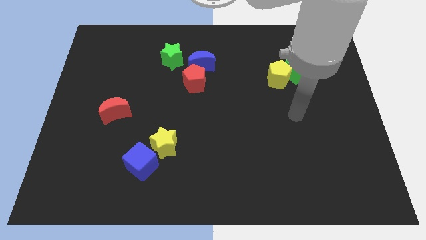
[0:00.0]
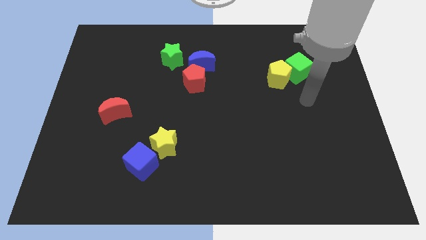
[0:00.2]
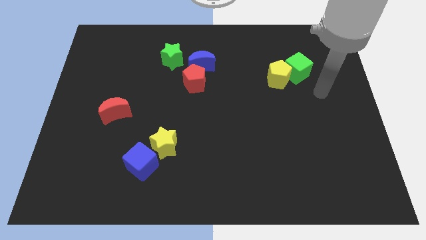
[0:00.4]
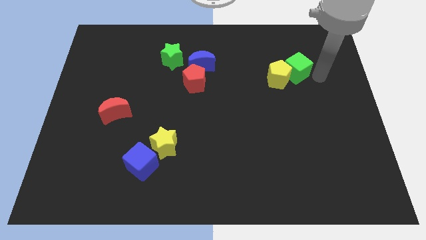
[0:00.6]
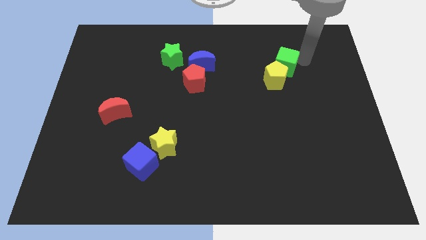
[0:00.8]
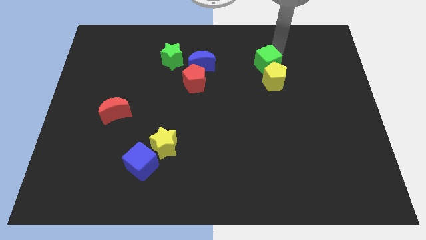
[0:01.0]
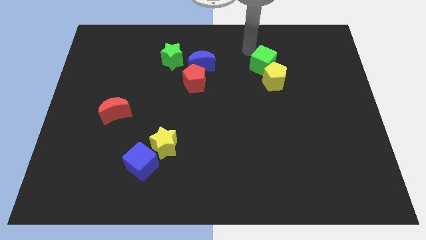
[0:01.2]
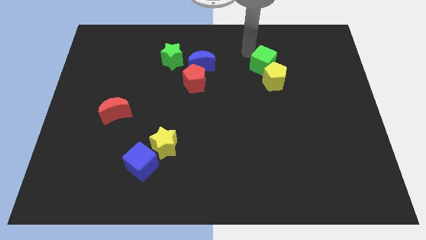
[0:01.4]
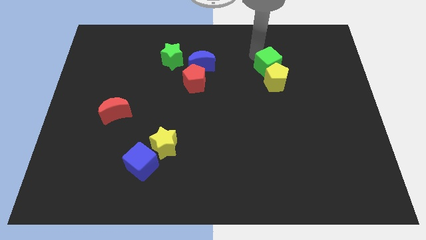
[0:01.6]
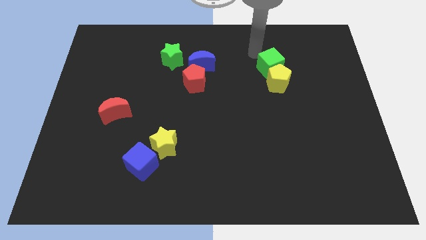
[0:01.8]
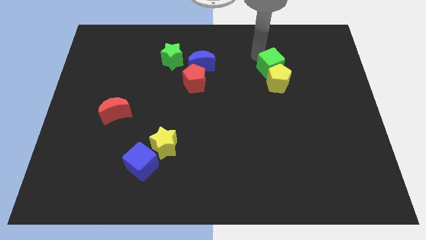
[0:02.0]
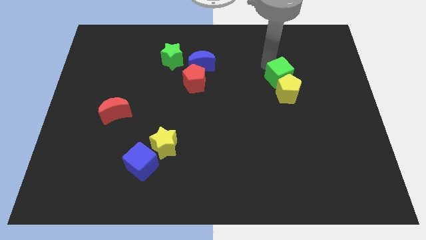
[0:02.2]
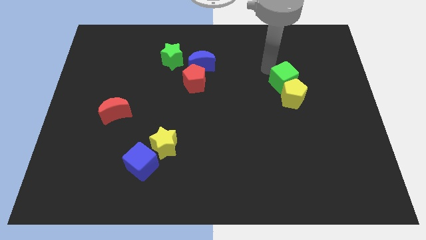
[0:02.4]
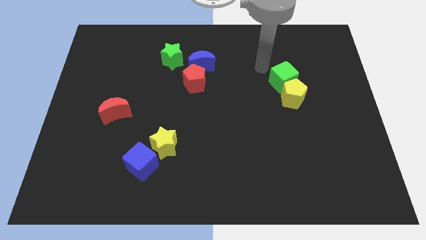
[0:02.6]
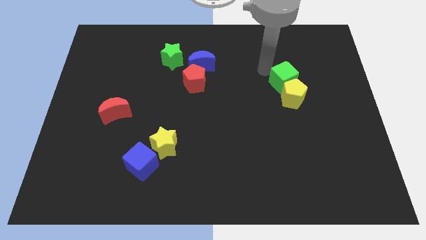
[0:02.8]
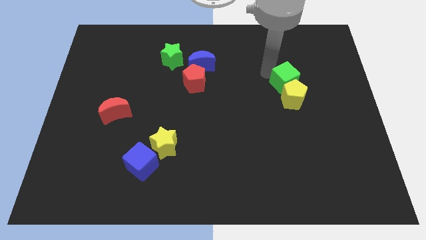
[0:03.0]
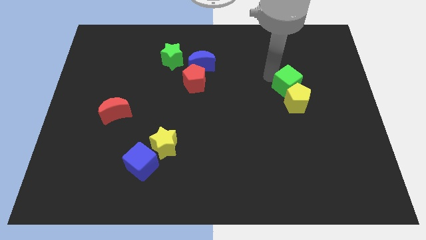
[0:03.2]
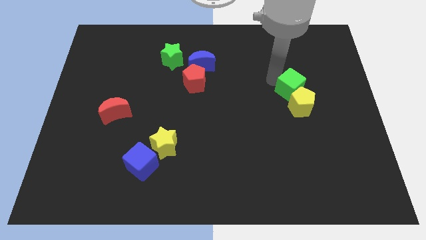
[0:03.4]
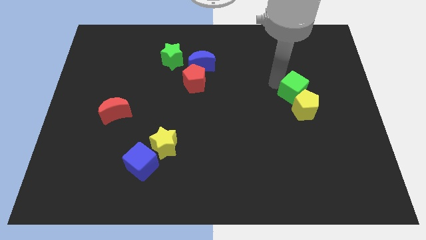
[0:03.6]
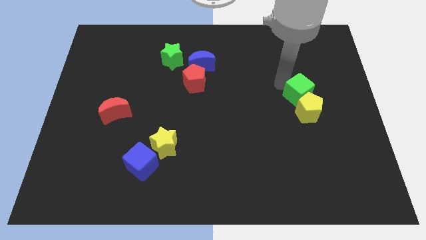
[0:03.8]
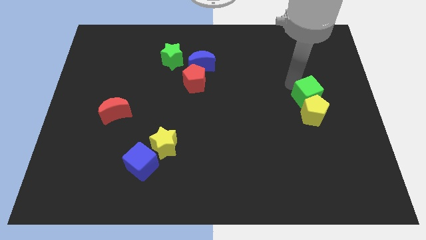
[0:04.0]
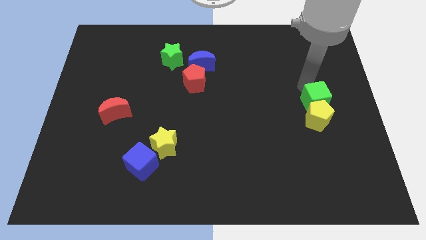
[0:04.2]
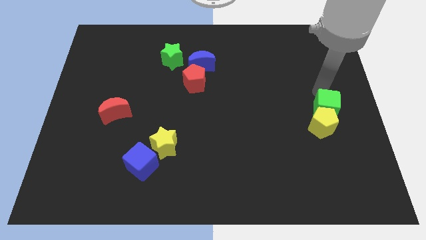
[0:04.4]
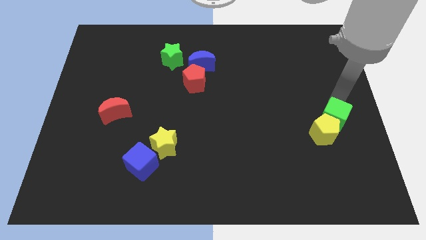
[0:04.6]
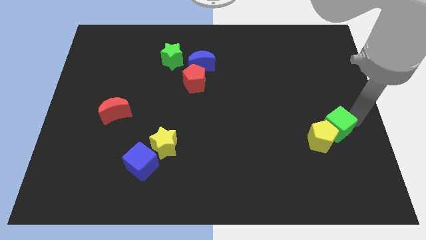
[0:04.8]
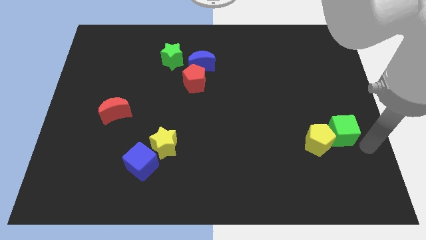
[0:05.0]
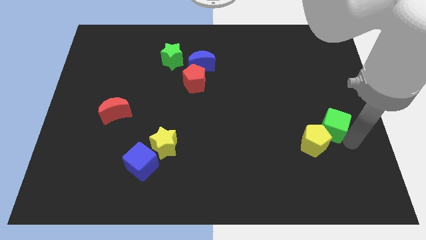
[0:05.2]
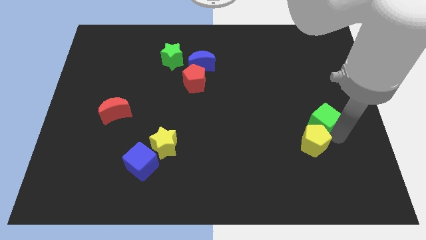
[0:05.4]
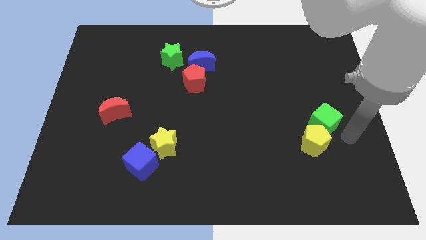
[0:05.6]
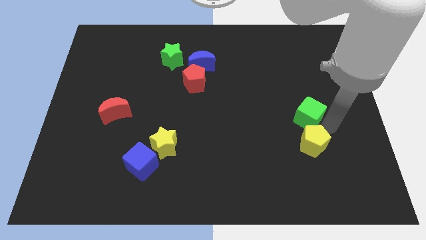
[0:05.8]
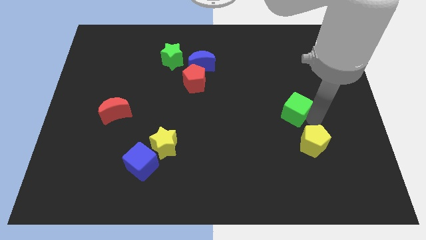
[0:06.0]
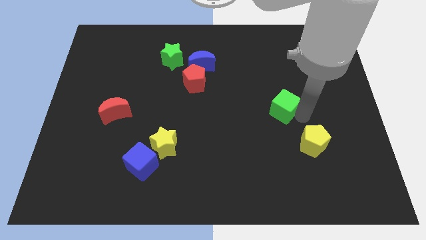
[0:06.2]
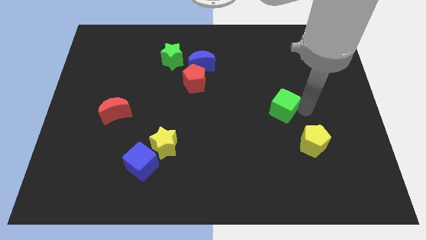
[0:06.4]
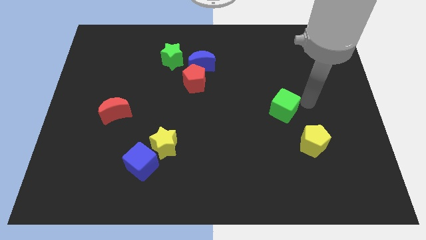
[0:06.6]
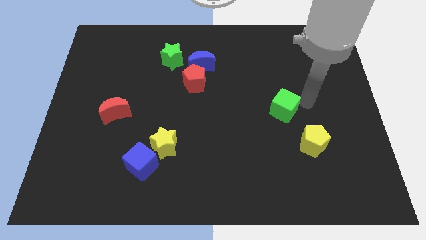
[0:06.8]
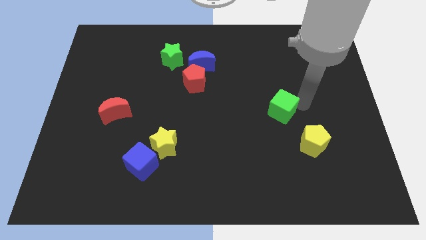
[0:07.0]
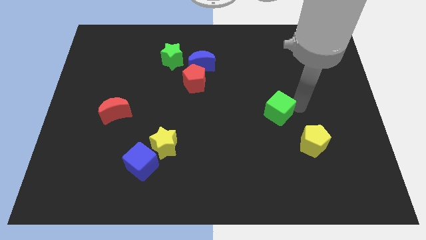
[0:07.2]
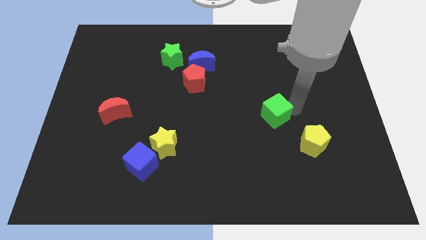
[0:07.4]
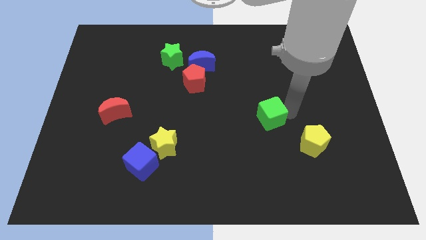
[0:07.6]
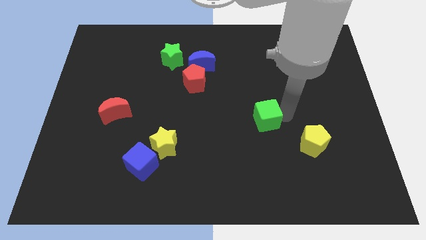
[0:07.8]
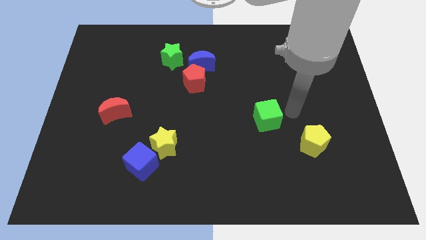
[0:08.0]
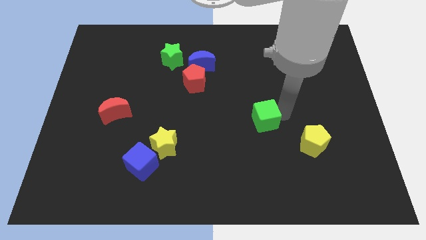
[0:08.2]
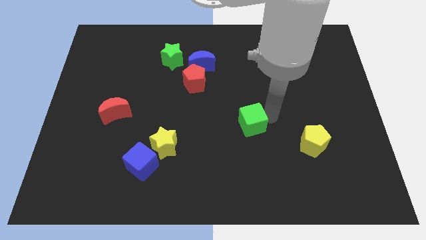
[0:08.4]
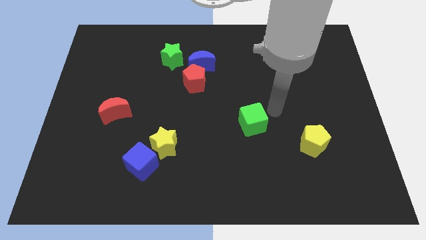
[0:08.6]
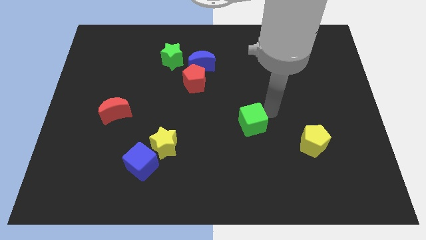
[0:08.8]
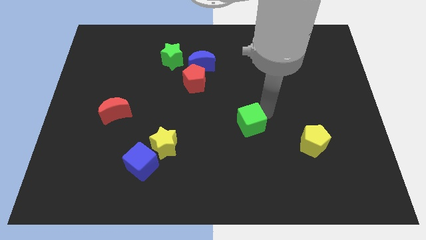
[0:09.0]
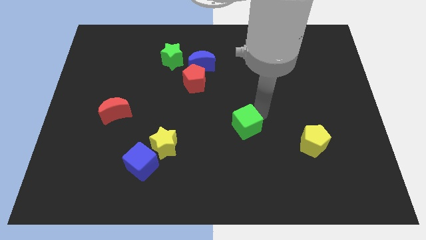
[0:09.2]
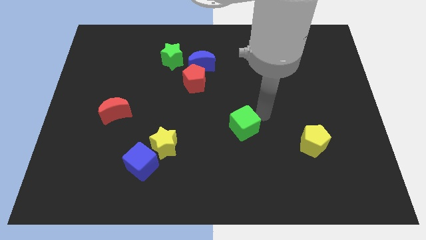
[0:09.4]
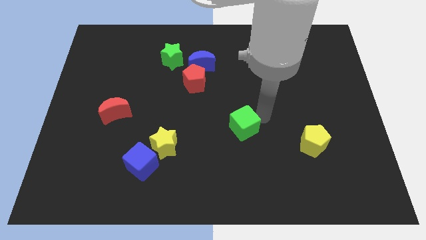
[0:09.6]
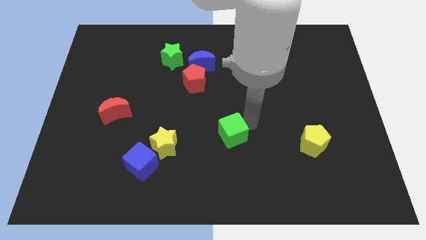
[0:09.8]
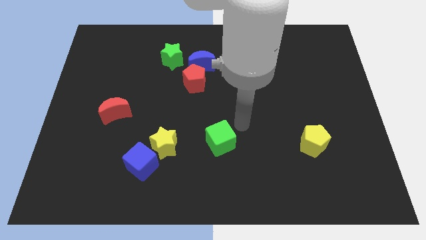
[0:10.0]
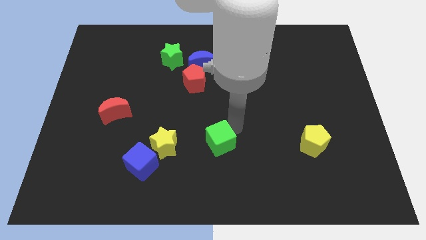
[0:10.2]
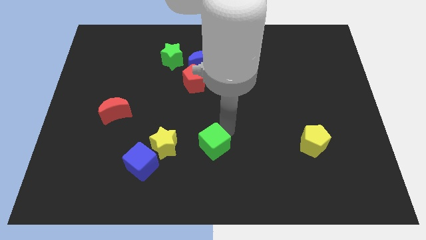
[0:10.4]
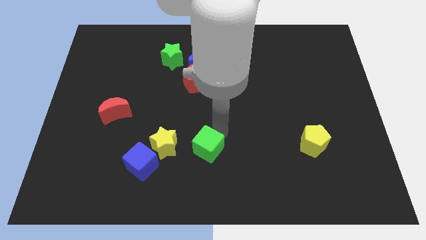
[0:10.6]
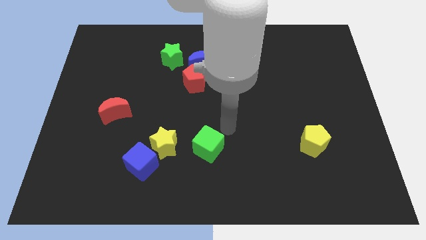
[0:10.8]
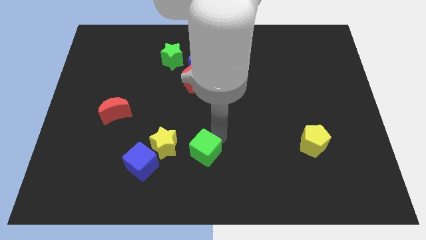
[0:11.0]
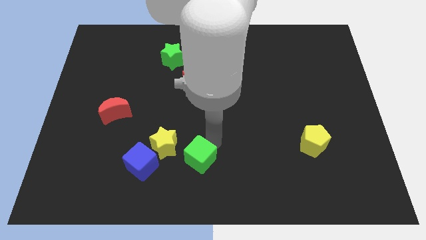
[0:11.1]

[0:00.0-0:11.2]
slide the green cube to the bottom right side of the yellow star
